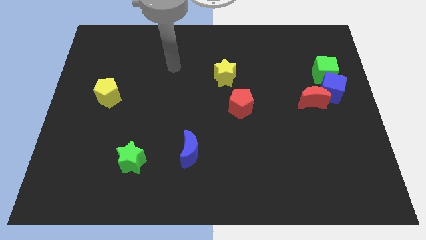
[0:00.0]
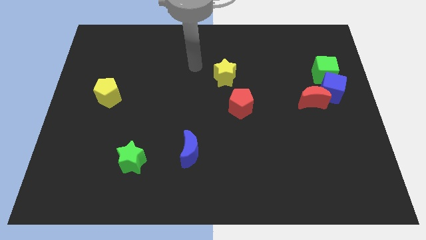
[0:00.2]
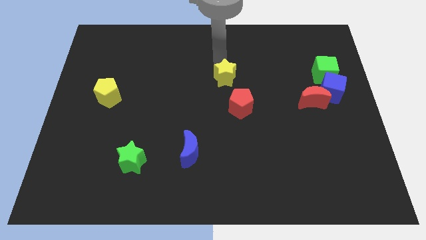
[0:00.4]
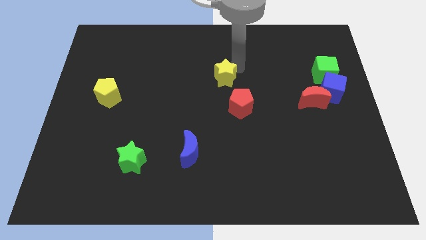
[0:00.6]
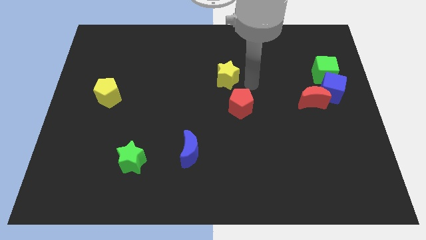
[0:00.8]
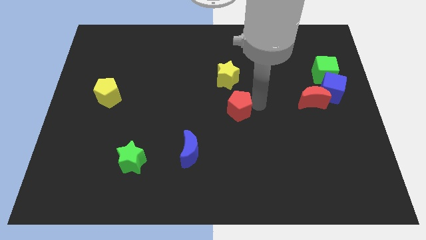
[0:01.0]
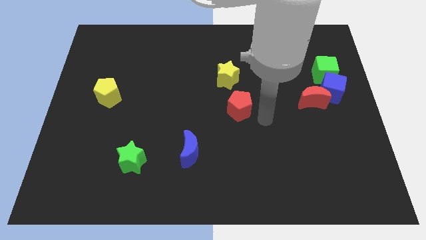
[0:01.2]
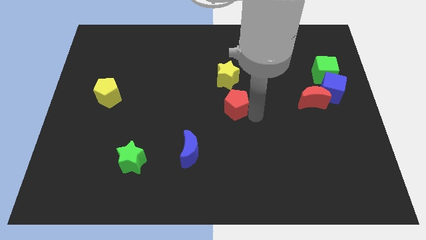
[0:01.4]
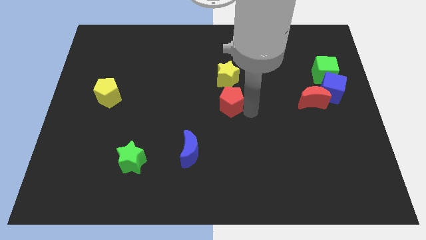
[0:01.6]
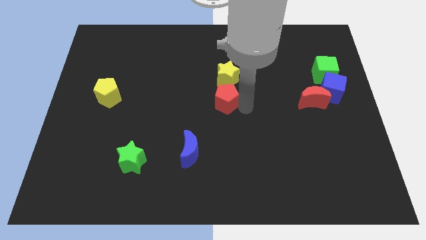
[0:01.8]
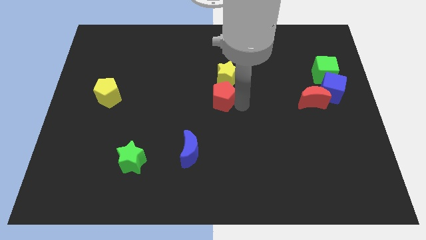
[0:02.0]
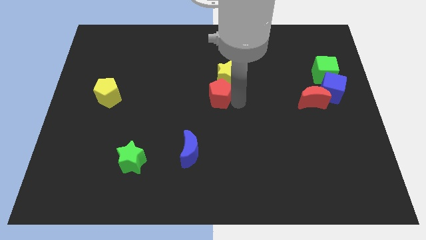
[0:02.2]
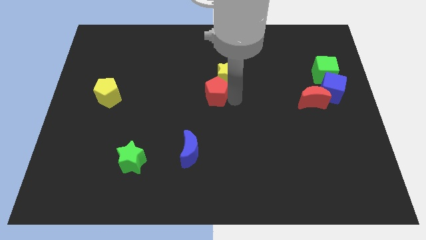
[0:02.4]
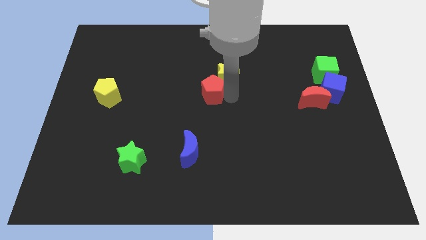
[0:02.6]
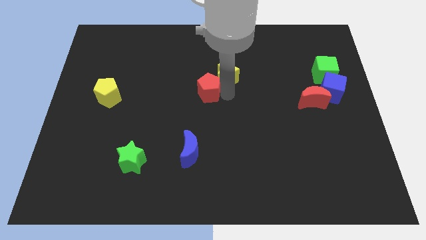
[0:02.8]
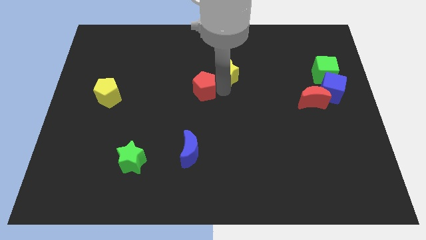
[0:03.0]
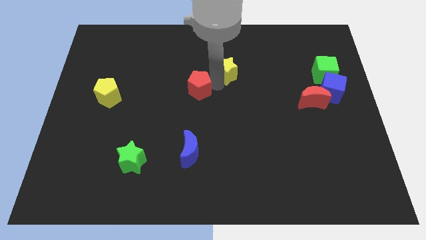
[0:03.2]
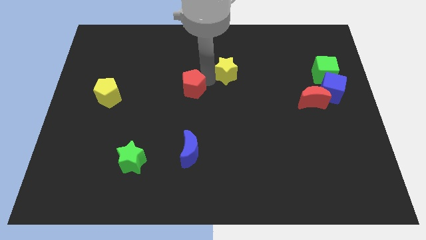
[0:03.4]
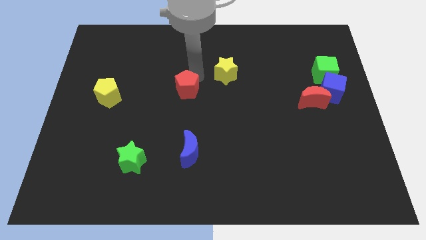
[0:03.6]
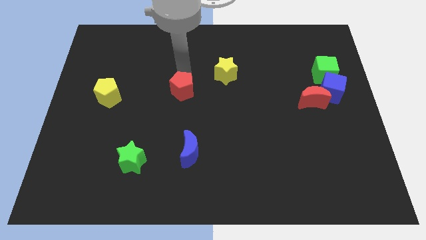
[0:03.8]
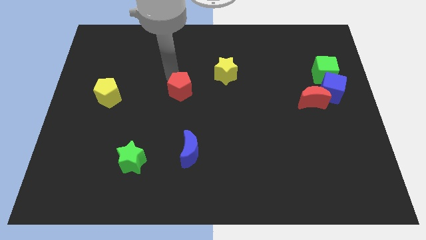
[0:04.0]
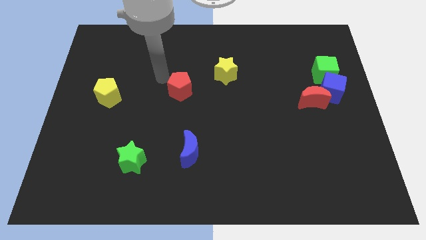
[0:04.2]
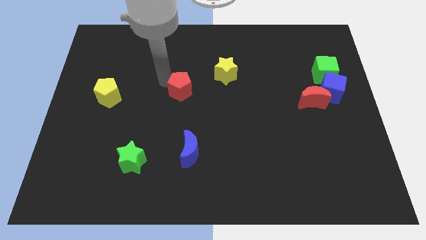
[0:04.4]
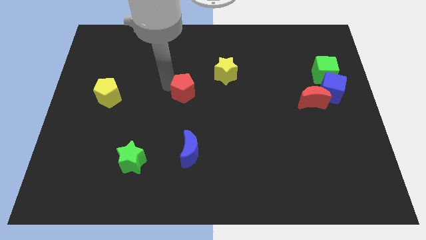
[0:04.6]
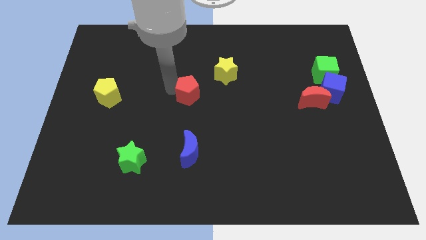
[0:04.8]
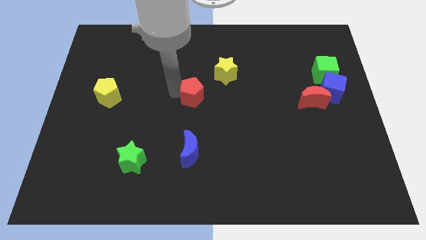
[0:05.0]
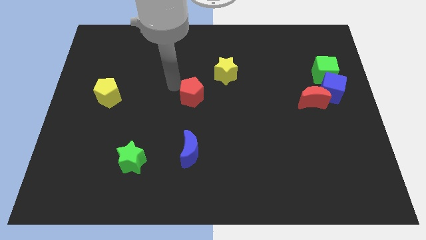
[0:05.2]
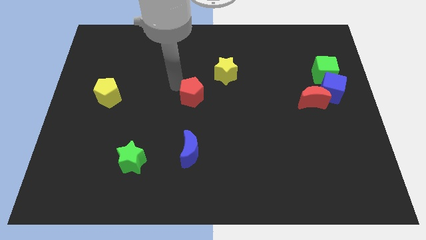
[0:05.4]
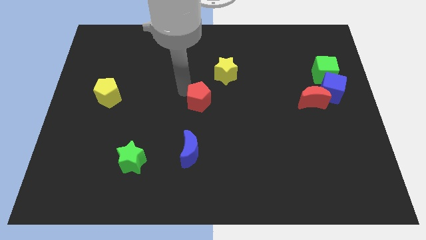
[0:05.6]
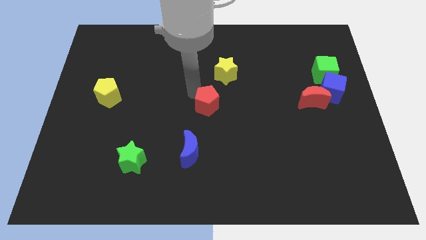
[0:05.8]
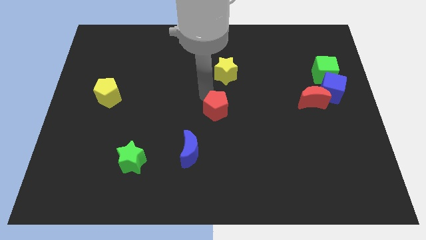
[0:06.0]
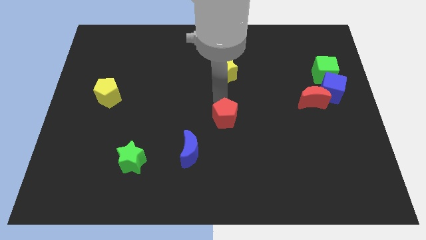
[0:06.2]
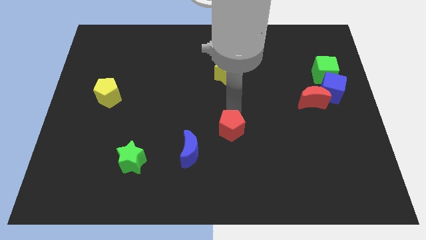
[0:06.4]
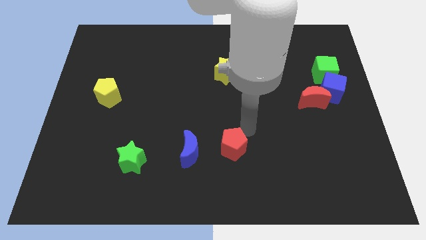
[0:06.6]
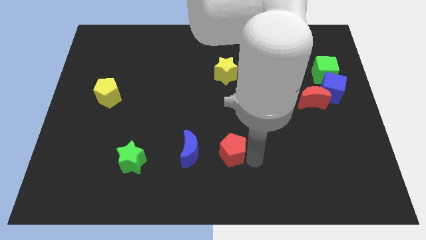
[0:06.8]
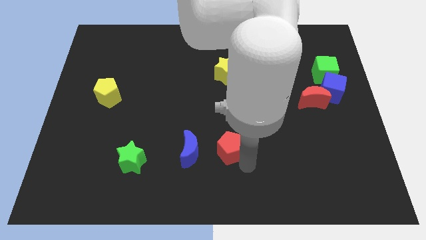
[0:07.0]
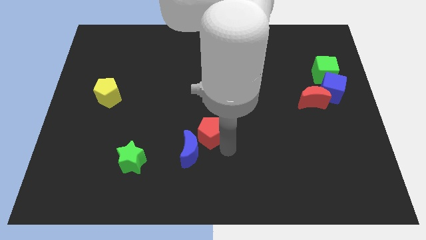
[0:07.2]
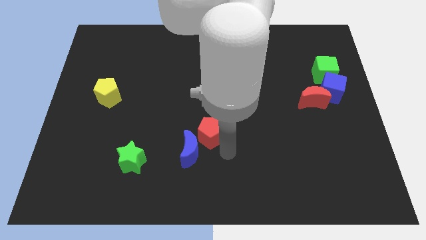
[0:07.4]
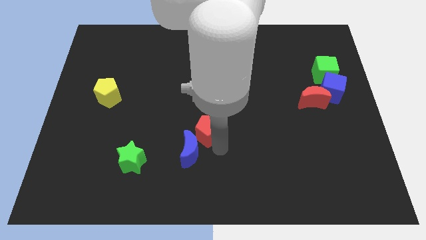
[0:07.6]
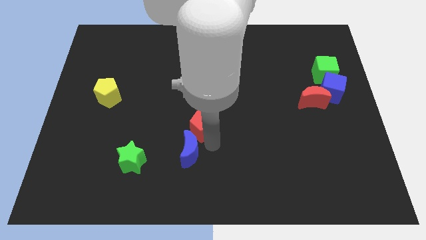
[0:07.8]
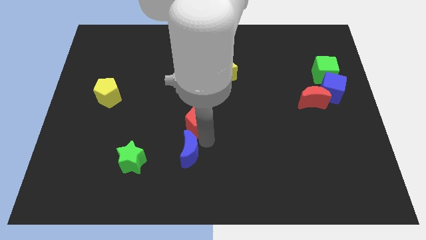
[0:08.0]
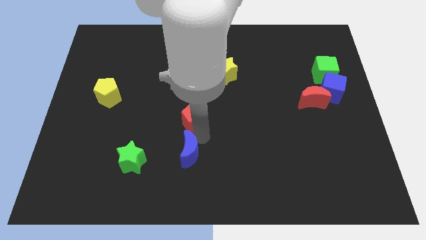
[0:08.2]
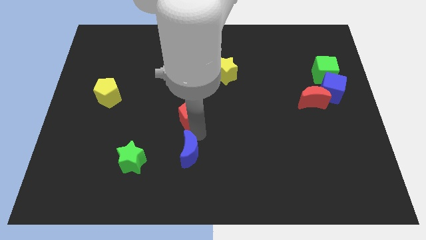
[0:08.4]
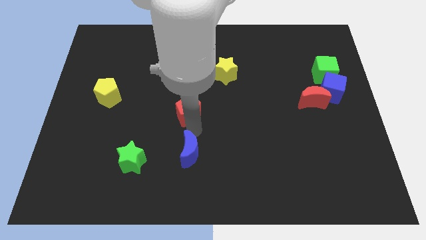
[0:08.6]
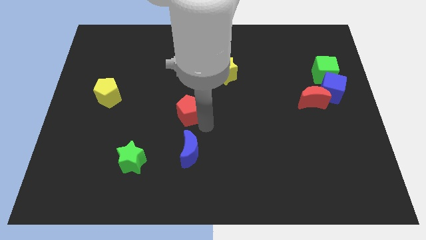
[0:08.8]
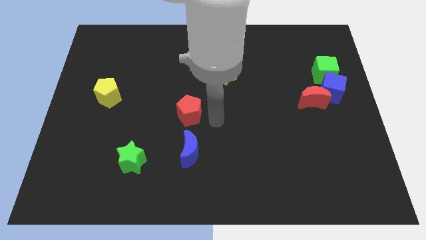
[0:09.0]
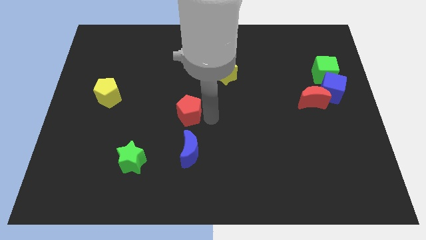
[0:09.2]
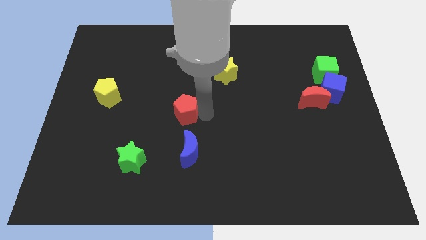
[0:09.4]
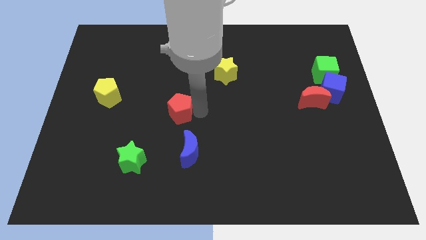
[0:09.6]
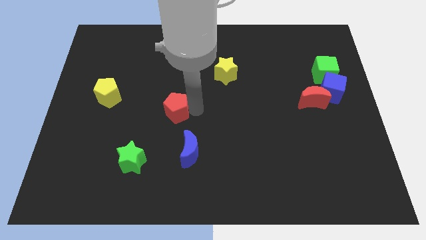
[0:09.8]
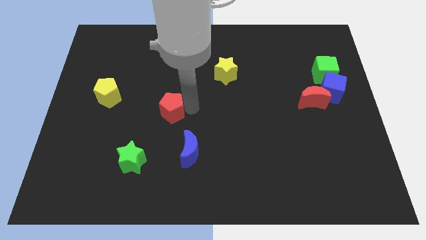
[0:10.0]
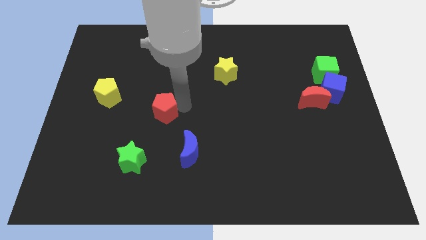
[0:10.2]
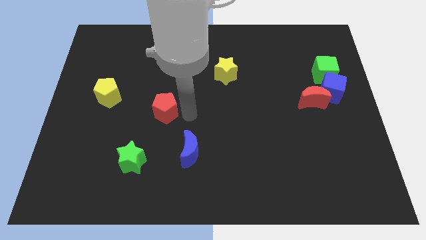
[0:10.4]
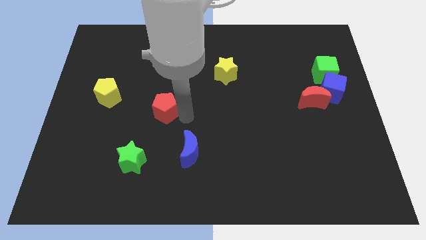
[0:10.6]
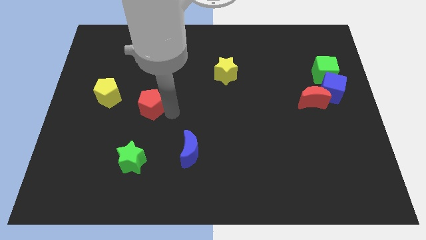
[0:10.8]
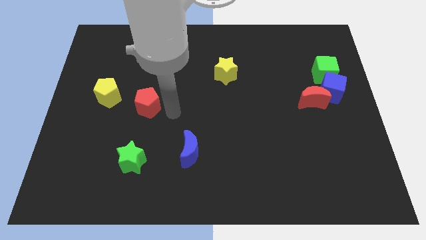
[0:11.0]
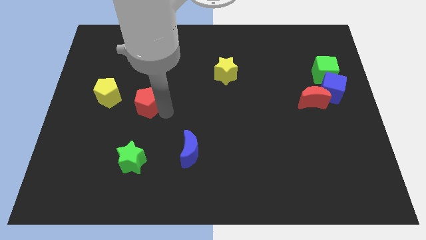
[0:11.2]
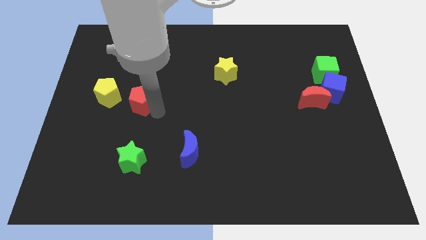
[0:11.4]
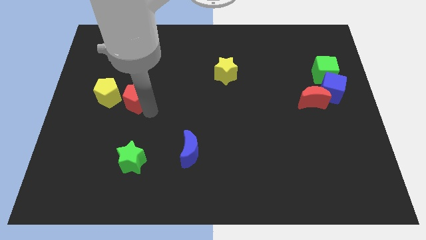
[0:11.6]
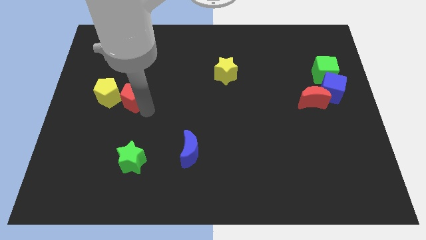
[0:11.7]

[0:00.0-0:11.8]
put the red pentagon next to the yellow pentagon
